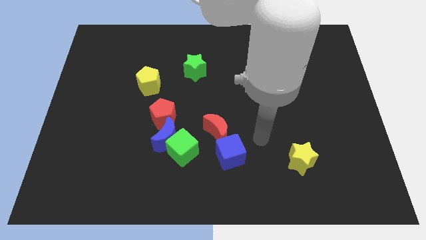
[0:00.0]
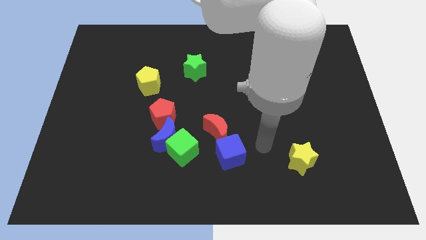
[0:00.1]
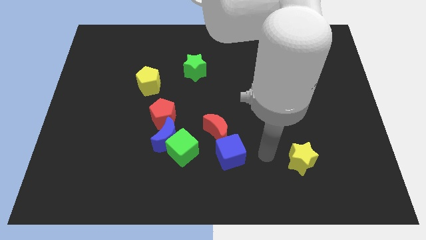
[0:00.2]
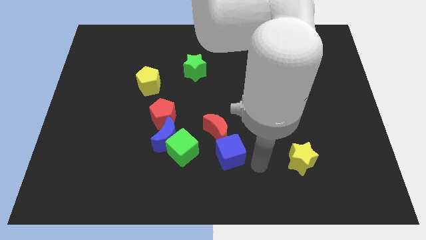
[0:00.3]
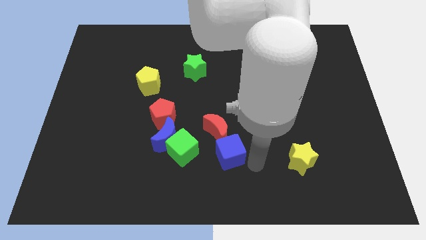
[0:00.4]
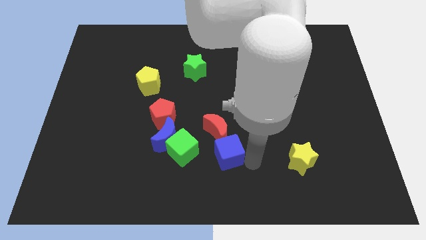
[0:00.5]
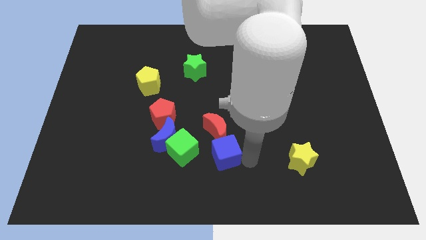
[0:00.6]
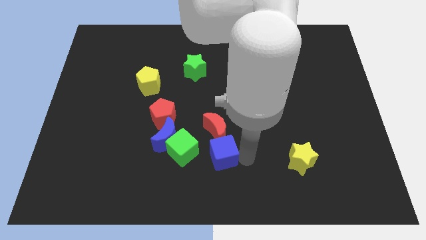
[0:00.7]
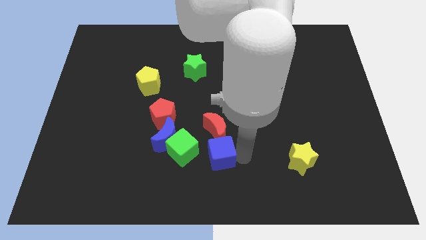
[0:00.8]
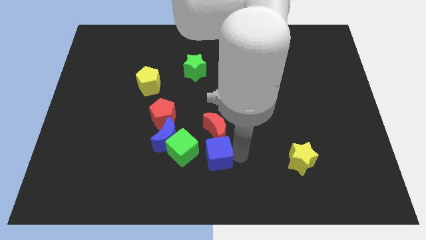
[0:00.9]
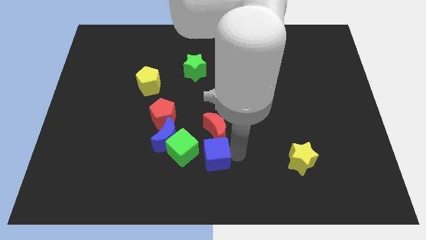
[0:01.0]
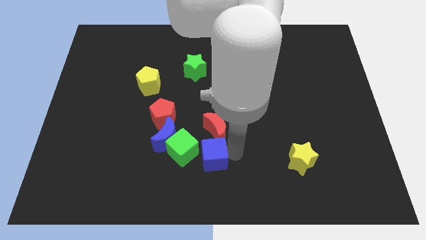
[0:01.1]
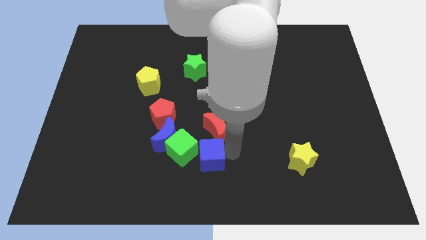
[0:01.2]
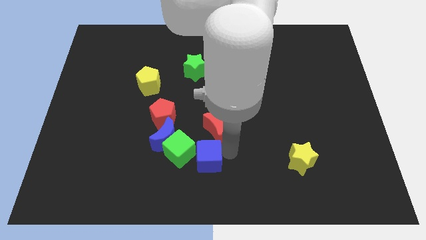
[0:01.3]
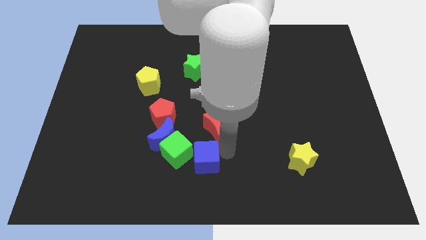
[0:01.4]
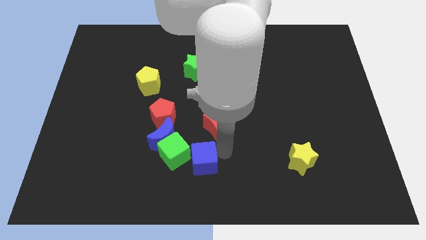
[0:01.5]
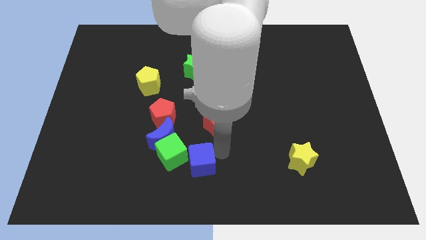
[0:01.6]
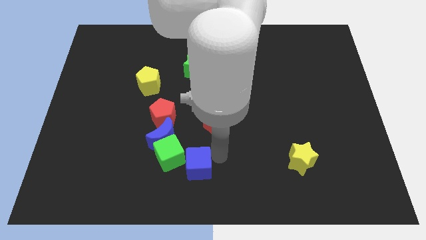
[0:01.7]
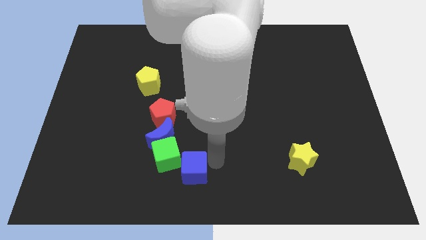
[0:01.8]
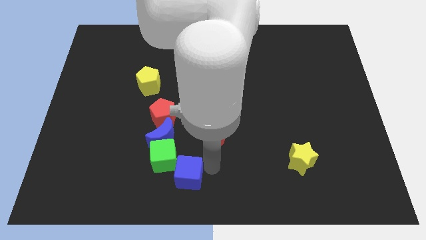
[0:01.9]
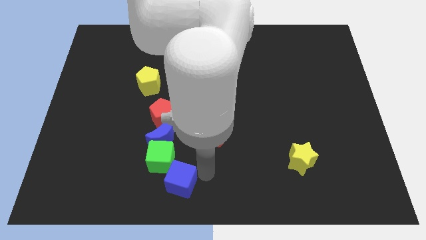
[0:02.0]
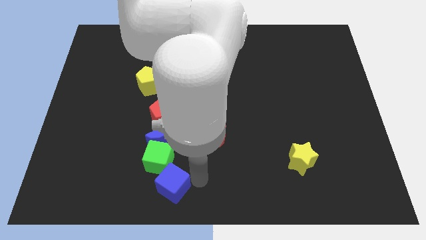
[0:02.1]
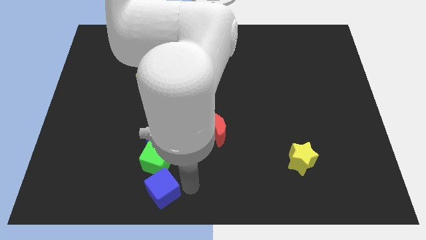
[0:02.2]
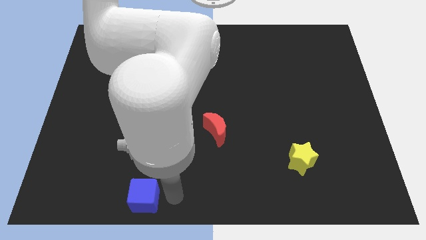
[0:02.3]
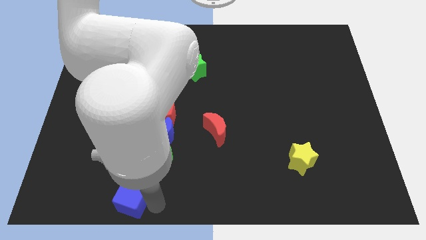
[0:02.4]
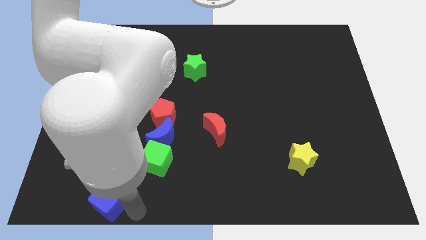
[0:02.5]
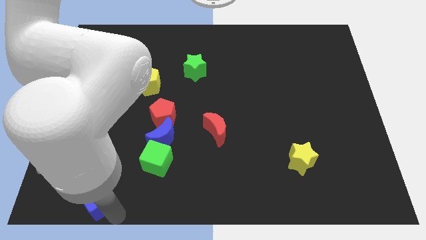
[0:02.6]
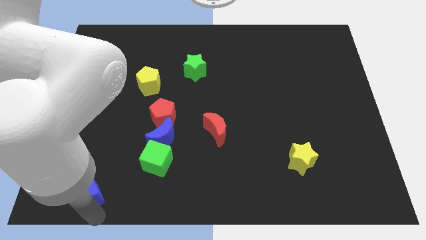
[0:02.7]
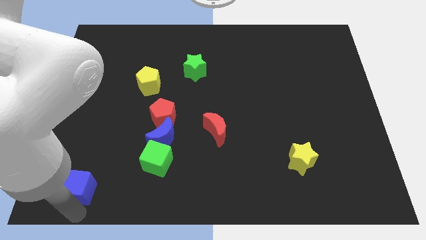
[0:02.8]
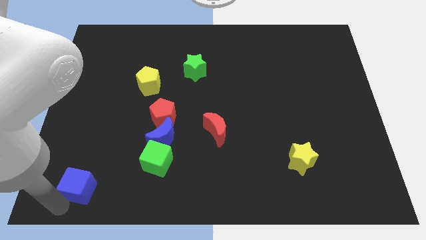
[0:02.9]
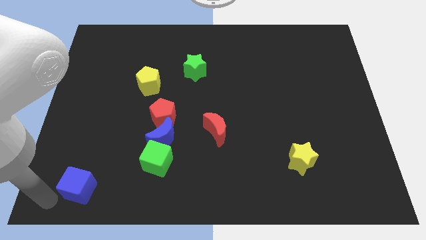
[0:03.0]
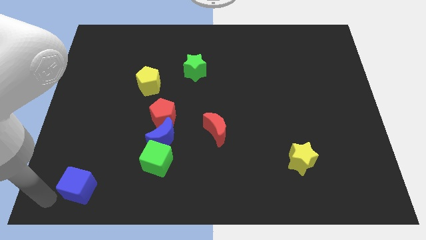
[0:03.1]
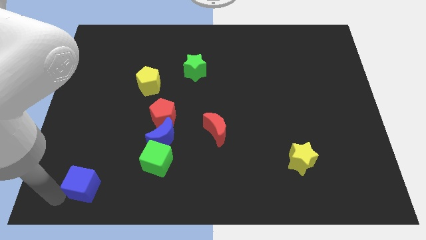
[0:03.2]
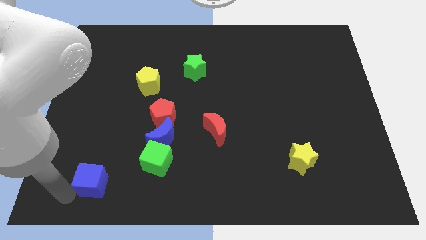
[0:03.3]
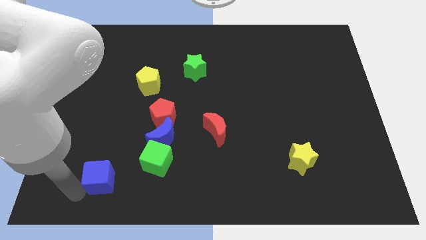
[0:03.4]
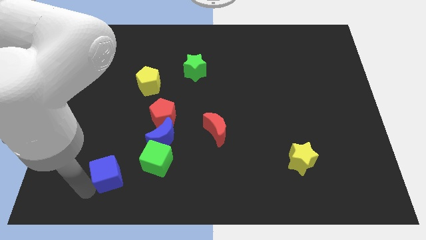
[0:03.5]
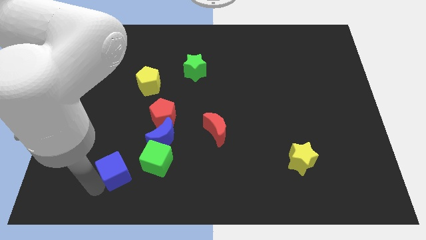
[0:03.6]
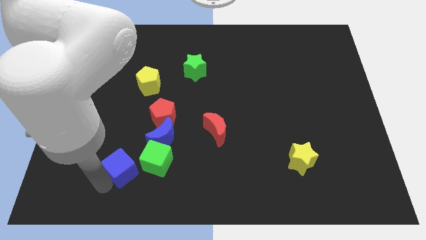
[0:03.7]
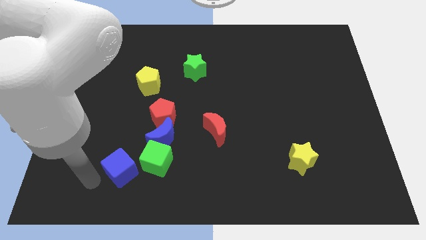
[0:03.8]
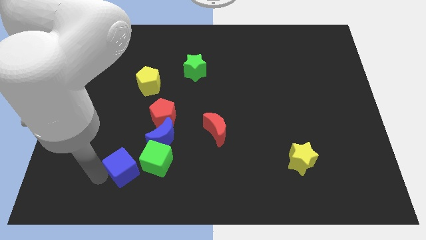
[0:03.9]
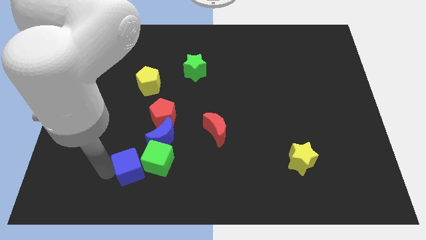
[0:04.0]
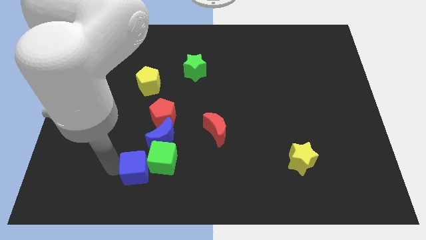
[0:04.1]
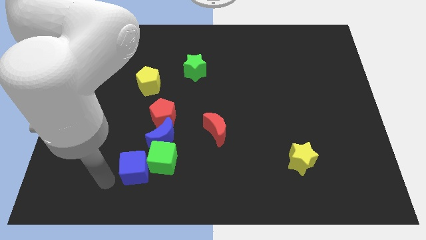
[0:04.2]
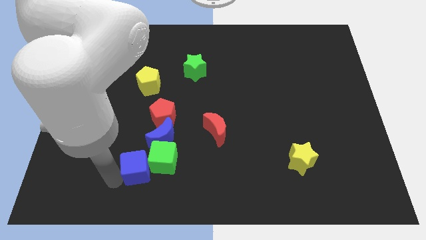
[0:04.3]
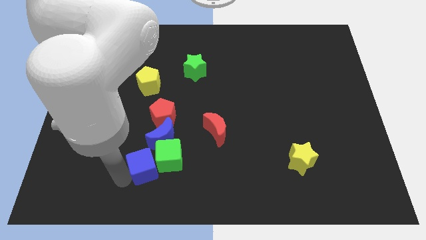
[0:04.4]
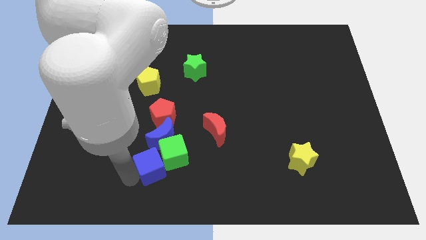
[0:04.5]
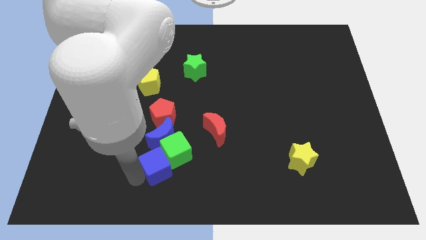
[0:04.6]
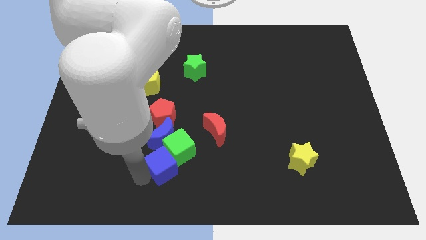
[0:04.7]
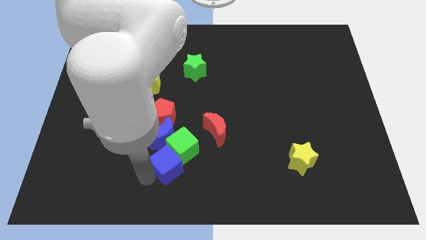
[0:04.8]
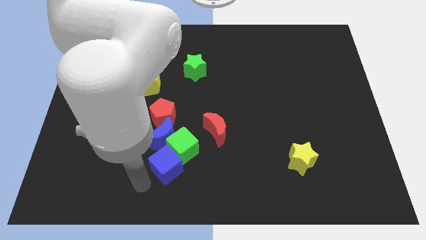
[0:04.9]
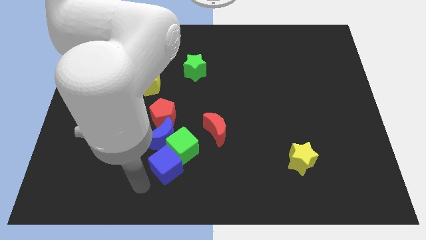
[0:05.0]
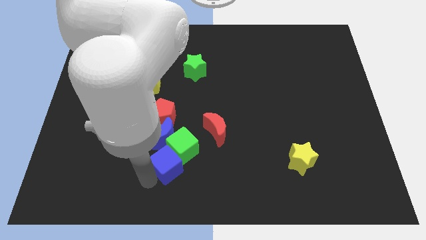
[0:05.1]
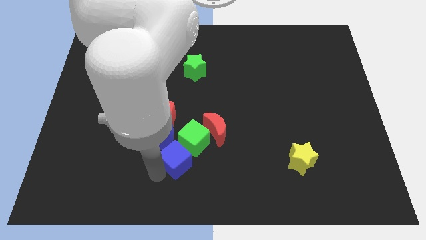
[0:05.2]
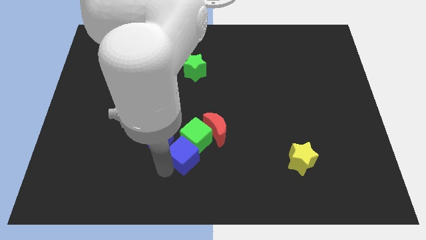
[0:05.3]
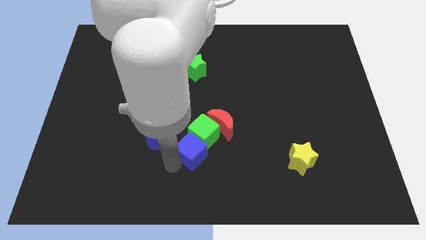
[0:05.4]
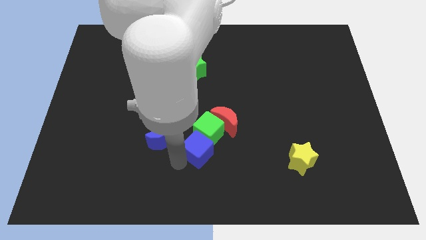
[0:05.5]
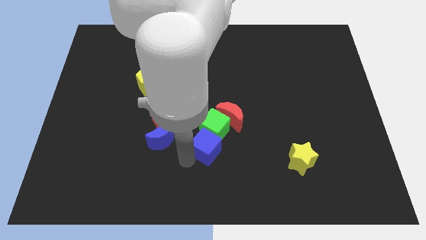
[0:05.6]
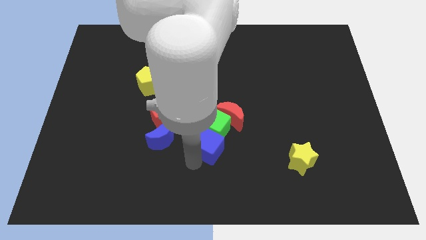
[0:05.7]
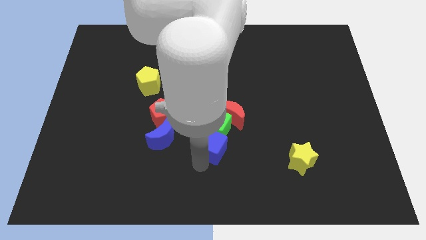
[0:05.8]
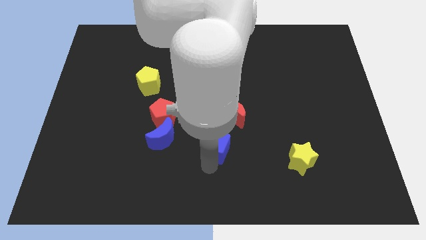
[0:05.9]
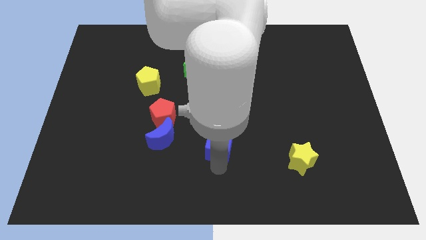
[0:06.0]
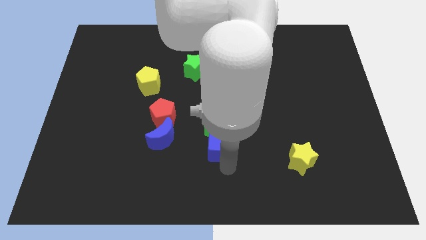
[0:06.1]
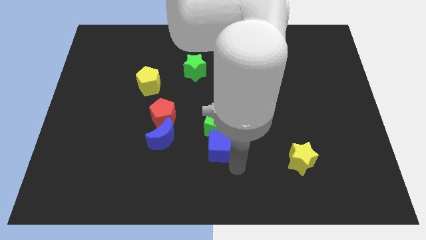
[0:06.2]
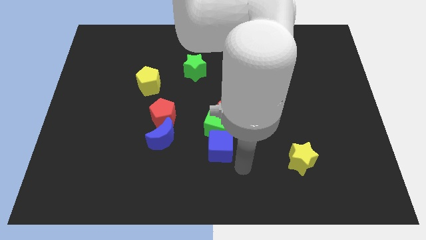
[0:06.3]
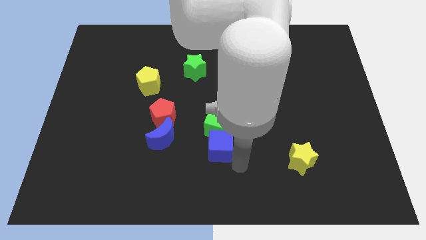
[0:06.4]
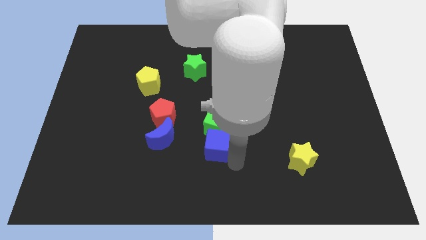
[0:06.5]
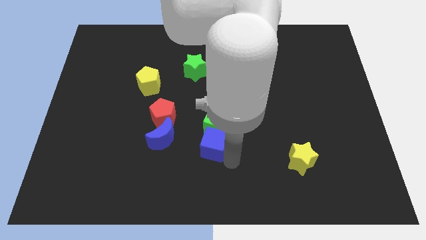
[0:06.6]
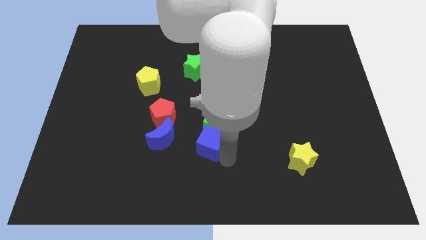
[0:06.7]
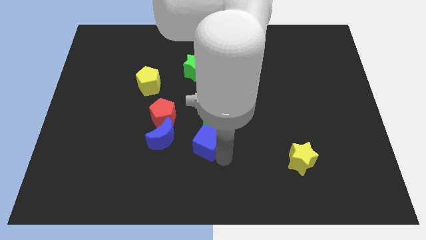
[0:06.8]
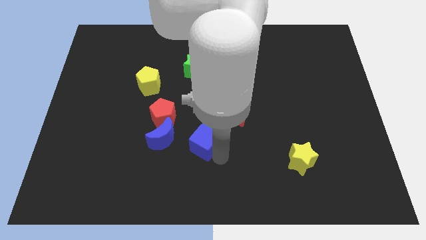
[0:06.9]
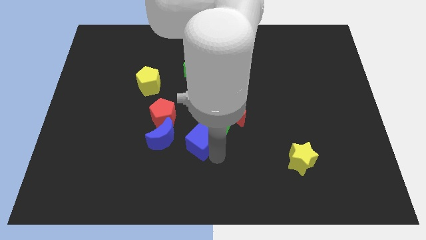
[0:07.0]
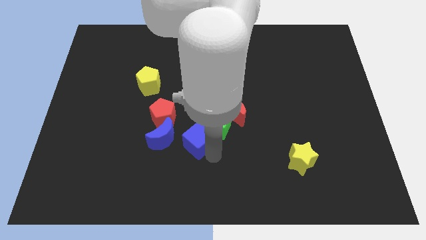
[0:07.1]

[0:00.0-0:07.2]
move the blue cube slightly up and to the left

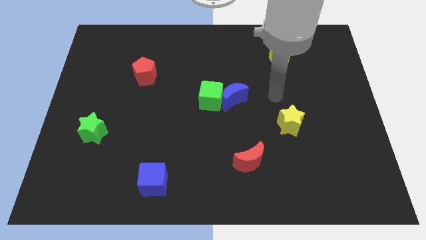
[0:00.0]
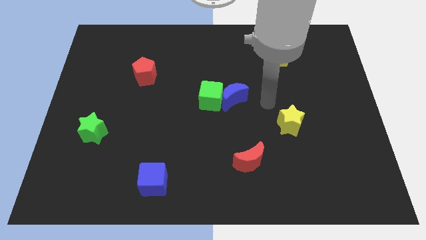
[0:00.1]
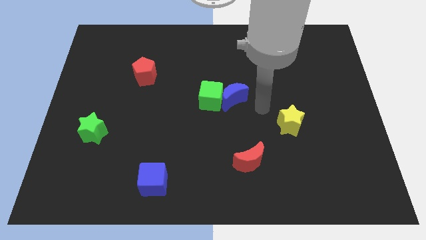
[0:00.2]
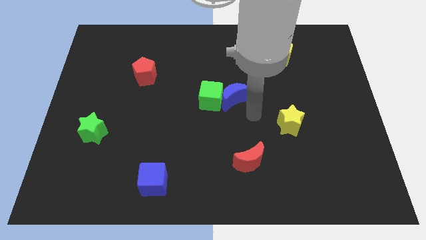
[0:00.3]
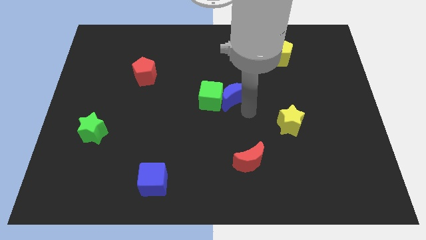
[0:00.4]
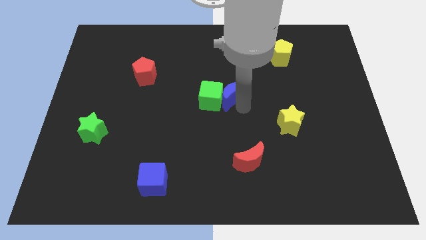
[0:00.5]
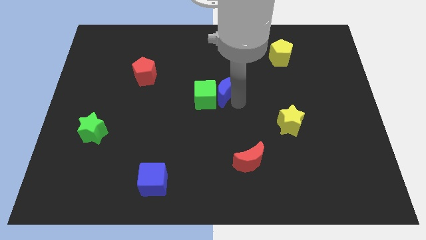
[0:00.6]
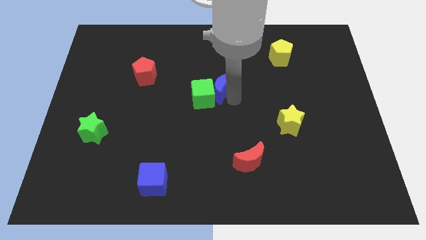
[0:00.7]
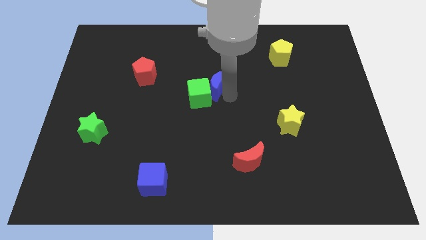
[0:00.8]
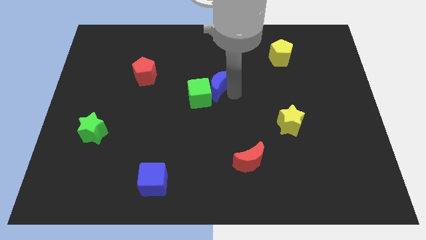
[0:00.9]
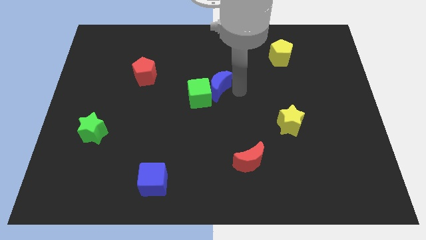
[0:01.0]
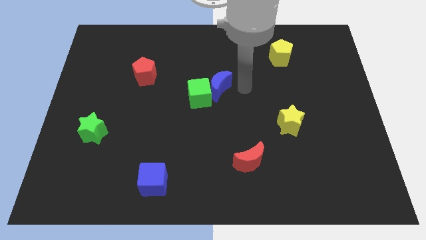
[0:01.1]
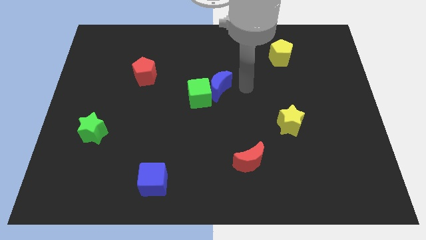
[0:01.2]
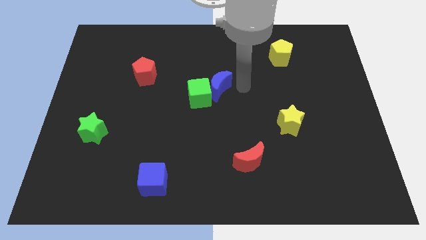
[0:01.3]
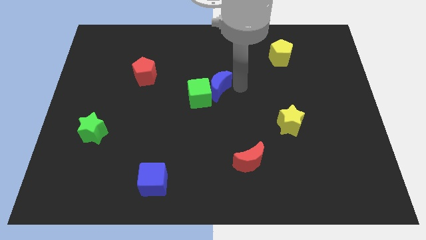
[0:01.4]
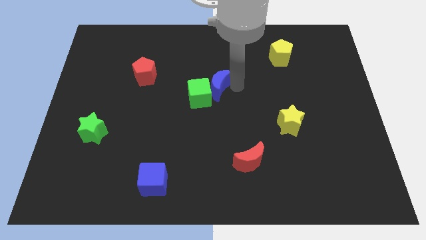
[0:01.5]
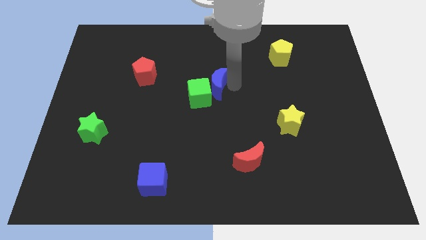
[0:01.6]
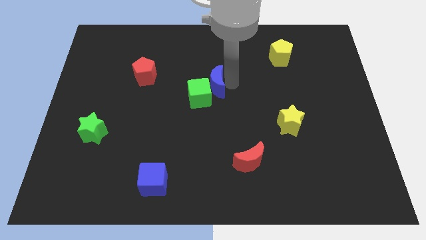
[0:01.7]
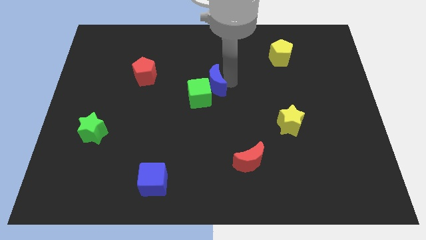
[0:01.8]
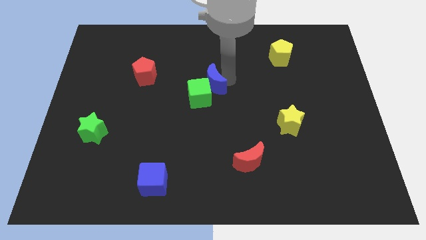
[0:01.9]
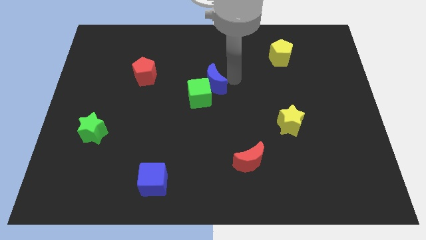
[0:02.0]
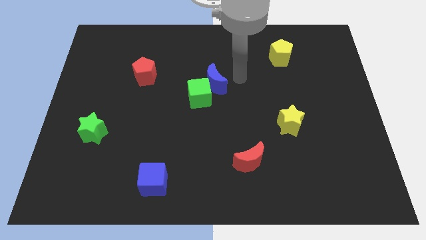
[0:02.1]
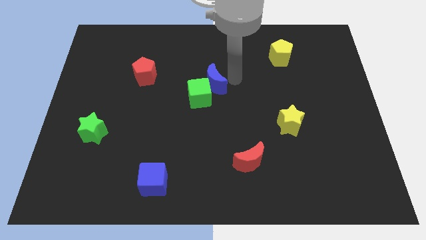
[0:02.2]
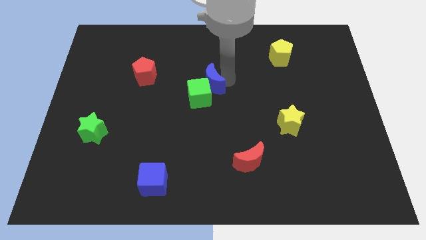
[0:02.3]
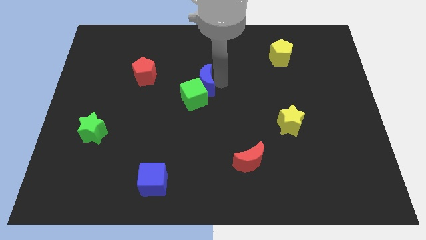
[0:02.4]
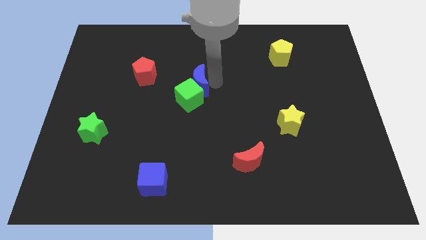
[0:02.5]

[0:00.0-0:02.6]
push the blue moon slightly left
